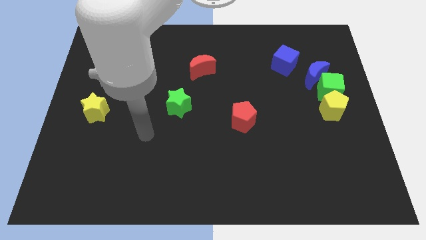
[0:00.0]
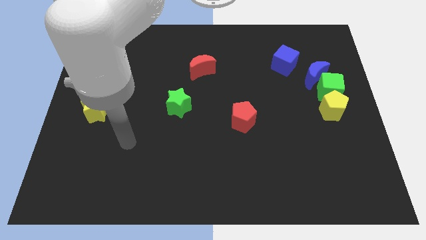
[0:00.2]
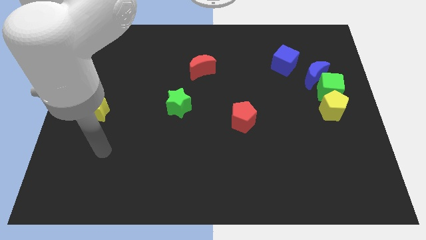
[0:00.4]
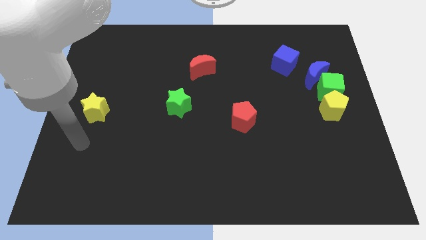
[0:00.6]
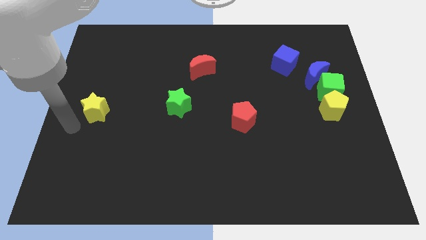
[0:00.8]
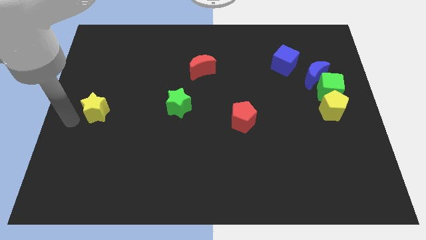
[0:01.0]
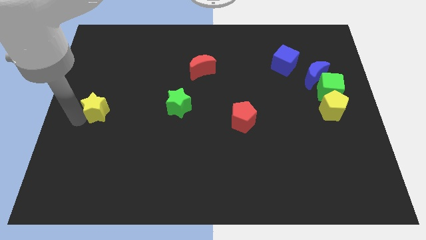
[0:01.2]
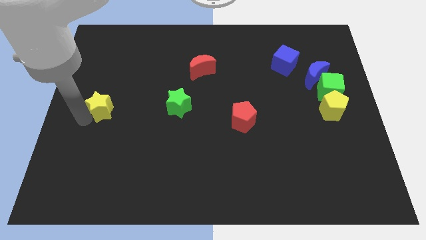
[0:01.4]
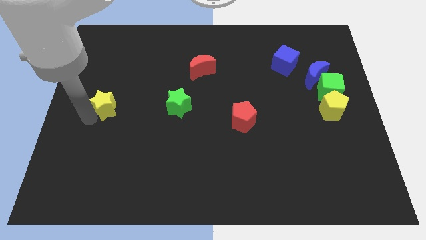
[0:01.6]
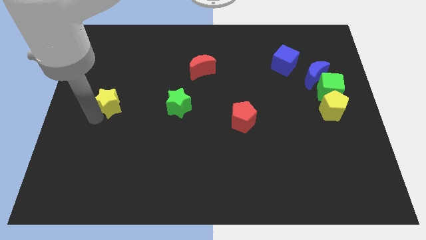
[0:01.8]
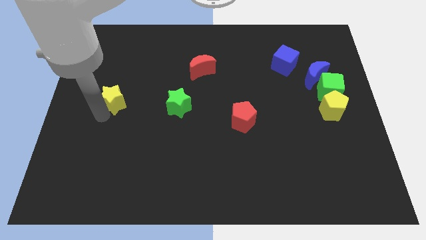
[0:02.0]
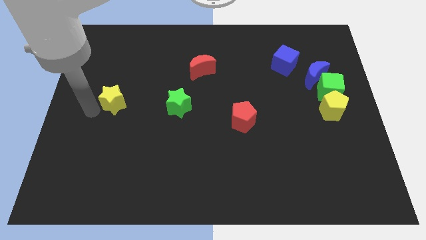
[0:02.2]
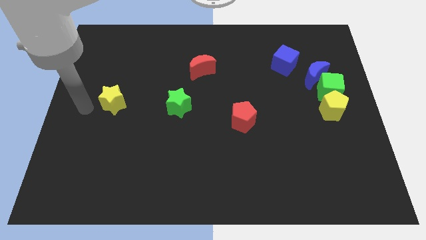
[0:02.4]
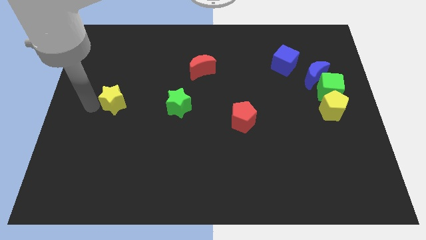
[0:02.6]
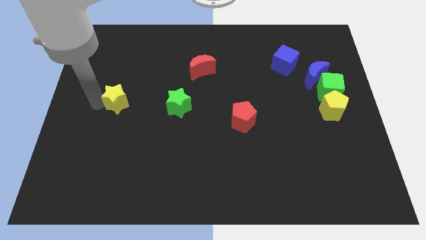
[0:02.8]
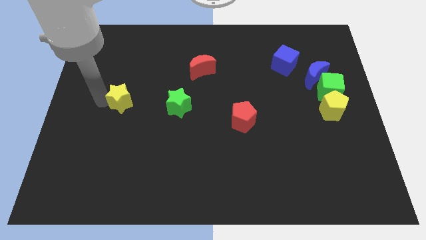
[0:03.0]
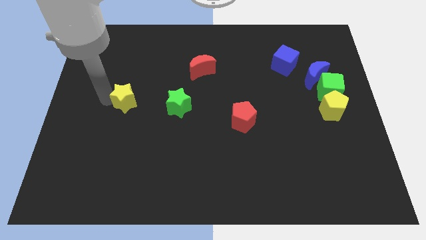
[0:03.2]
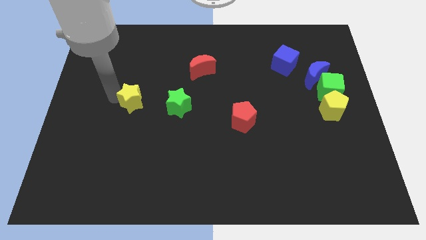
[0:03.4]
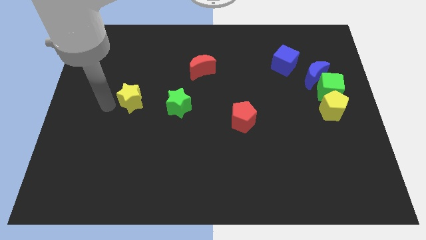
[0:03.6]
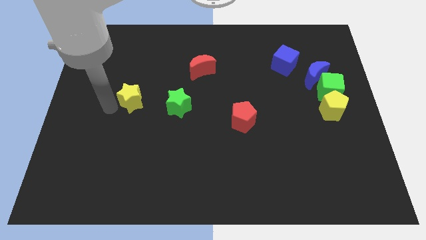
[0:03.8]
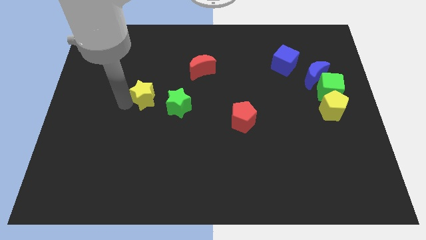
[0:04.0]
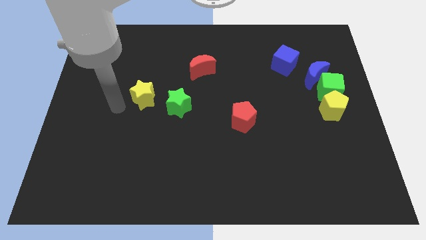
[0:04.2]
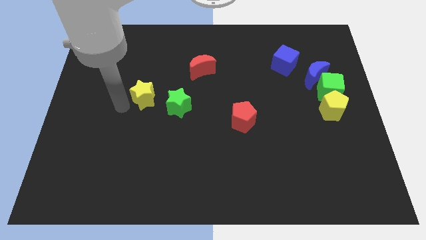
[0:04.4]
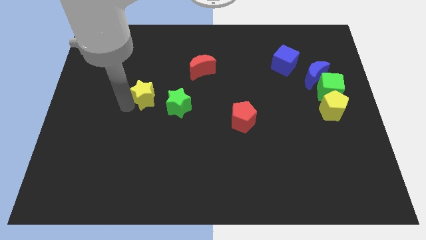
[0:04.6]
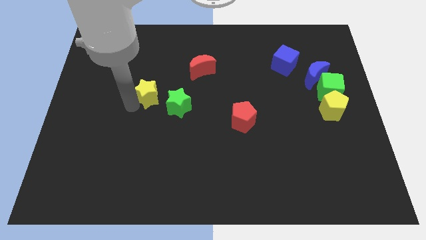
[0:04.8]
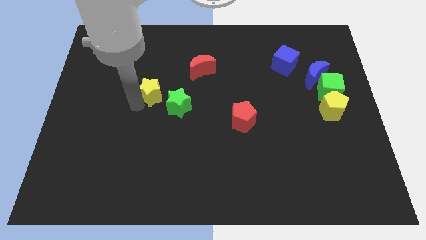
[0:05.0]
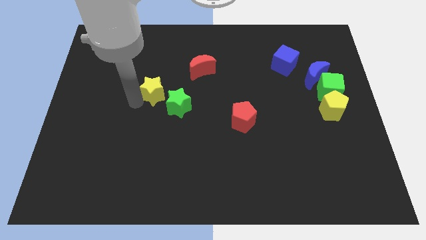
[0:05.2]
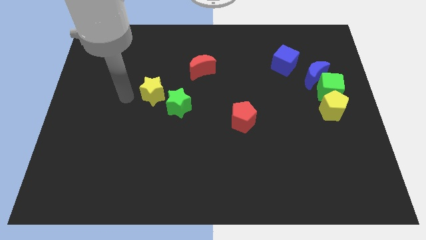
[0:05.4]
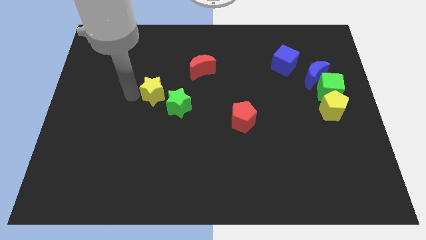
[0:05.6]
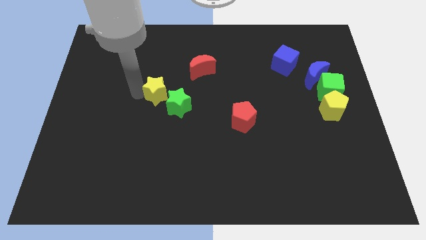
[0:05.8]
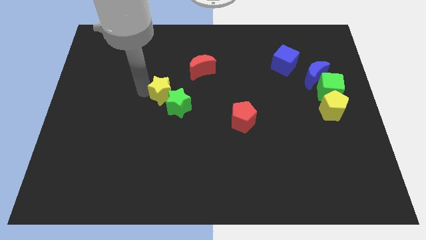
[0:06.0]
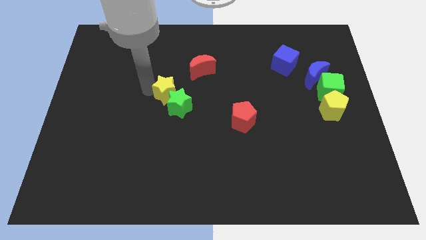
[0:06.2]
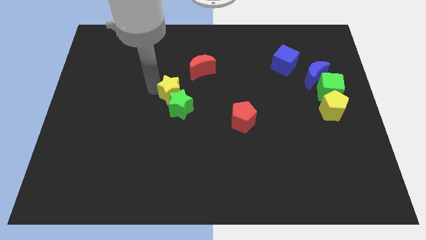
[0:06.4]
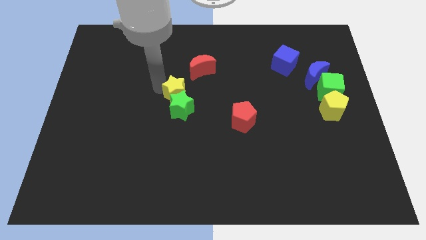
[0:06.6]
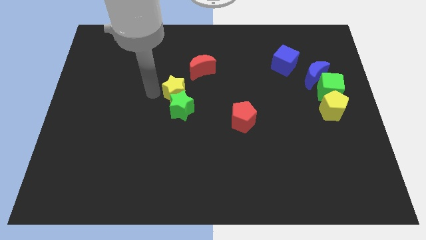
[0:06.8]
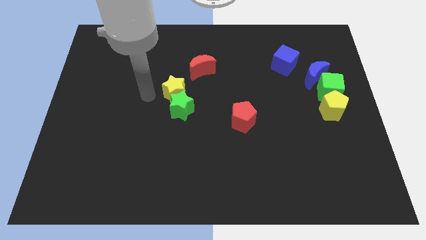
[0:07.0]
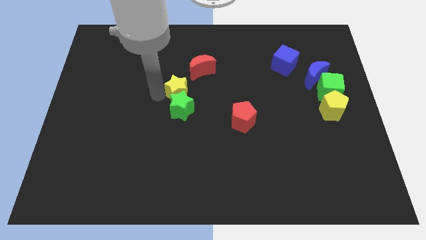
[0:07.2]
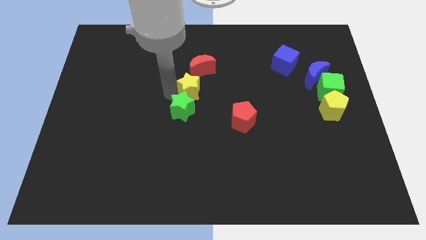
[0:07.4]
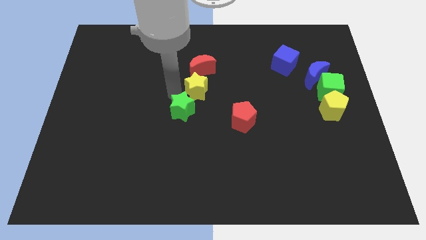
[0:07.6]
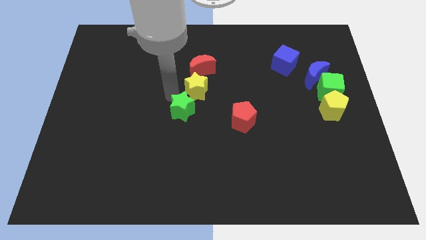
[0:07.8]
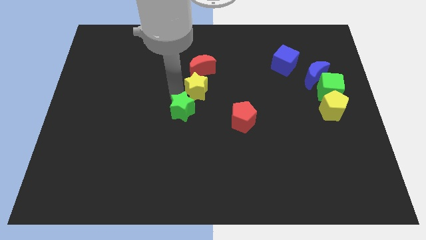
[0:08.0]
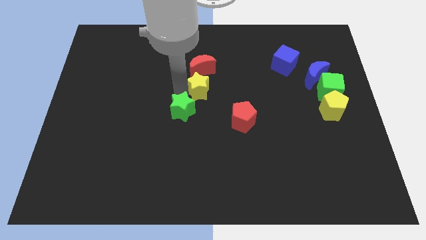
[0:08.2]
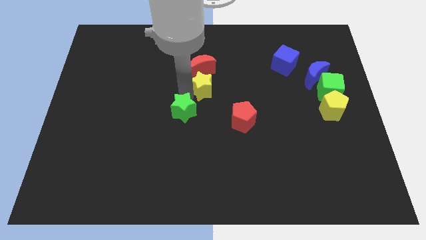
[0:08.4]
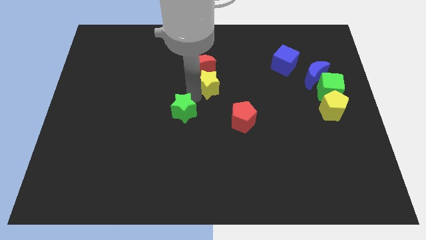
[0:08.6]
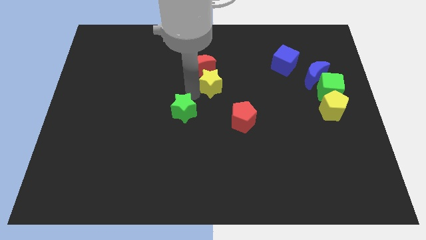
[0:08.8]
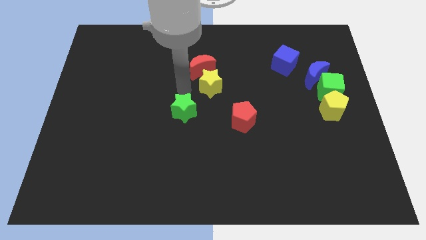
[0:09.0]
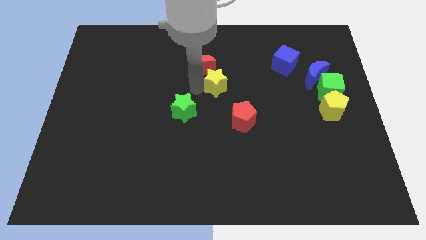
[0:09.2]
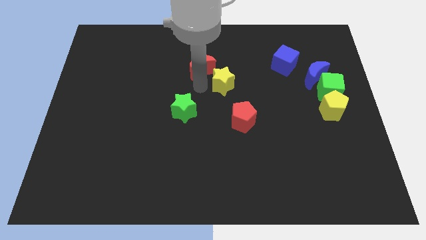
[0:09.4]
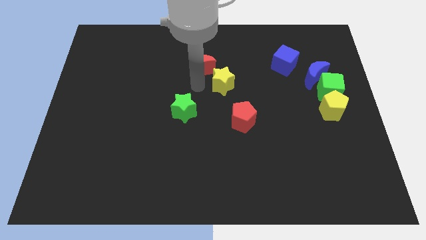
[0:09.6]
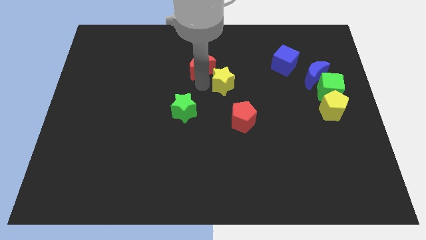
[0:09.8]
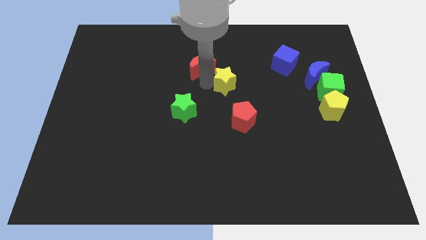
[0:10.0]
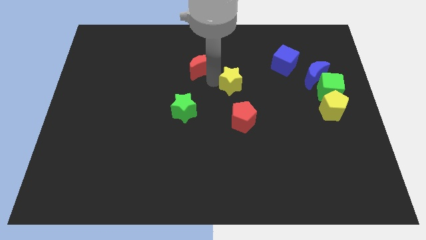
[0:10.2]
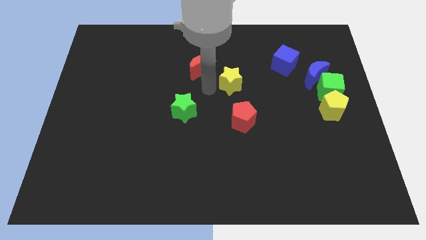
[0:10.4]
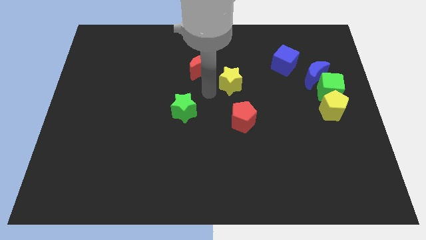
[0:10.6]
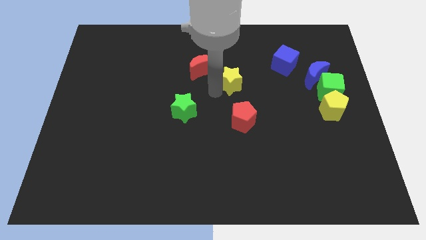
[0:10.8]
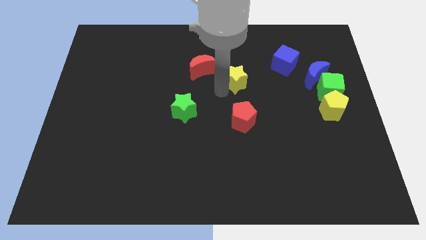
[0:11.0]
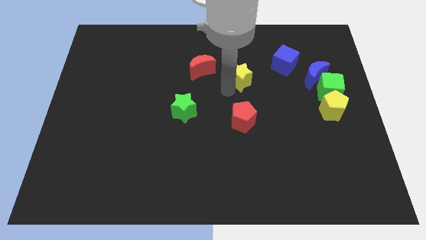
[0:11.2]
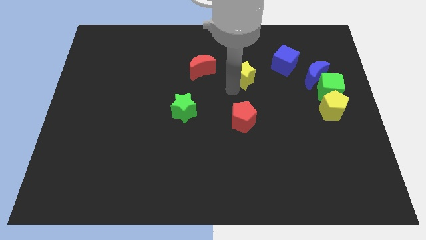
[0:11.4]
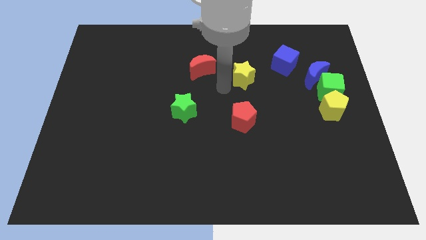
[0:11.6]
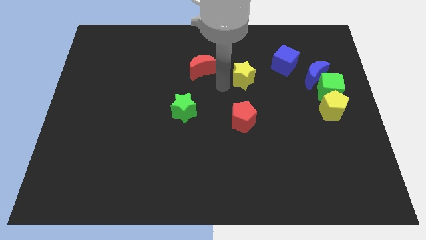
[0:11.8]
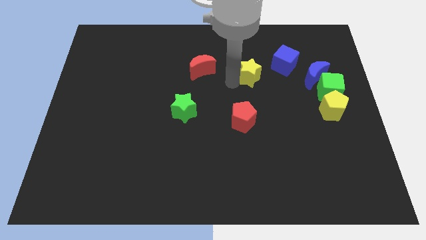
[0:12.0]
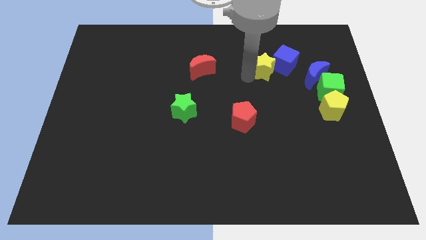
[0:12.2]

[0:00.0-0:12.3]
move the yellow star towards the blue cube

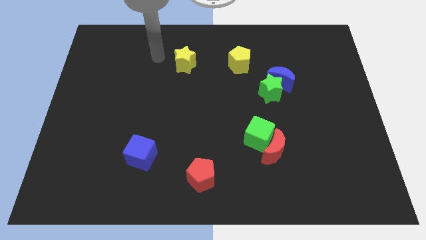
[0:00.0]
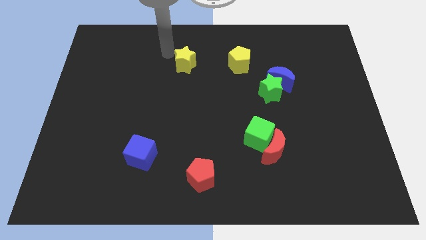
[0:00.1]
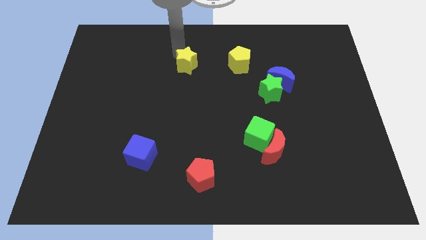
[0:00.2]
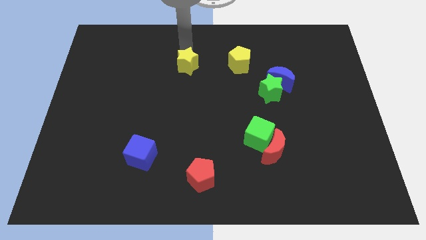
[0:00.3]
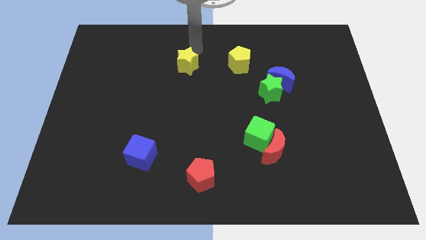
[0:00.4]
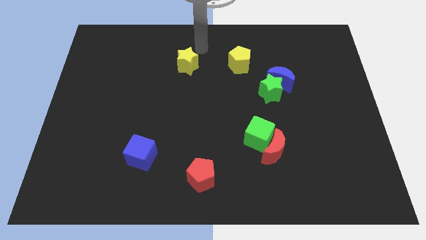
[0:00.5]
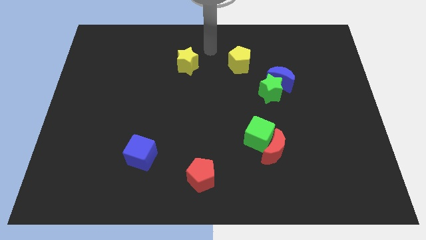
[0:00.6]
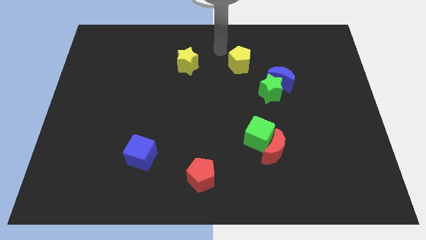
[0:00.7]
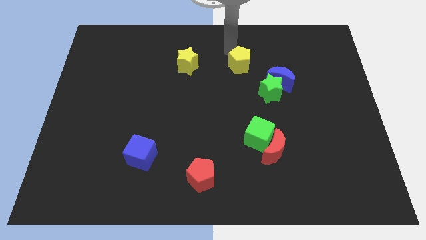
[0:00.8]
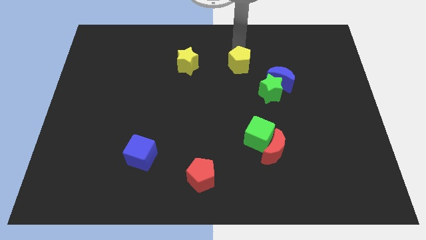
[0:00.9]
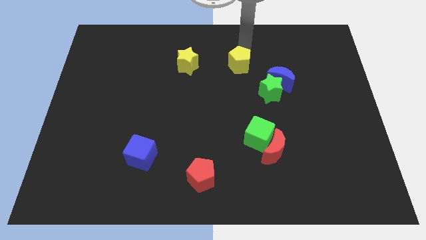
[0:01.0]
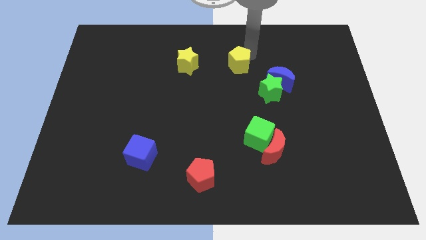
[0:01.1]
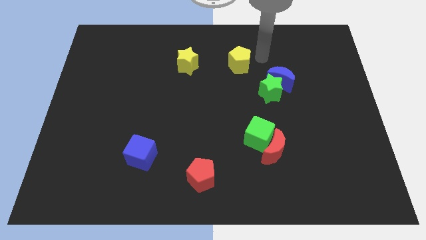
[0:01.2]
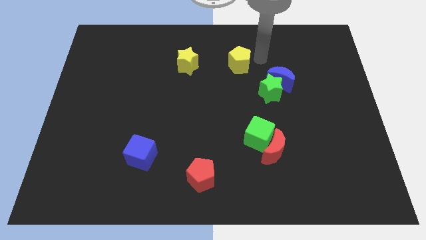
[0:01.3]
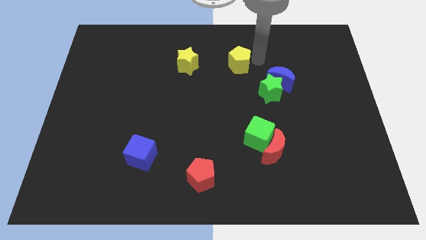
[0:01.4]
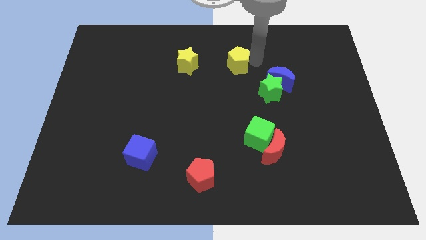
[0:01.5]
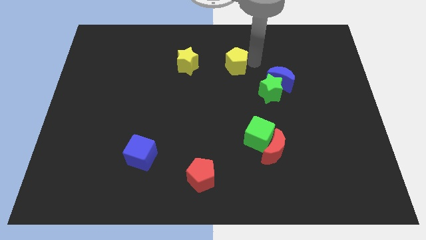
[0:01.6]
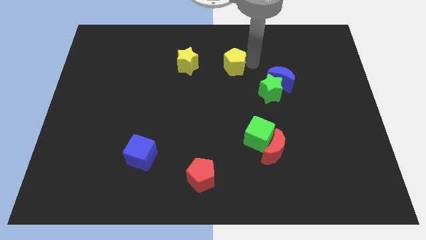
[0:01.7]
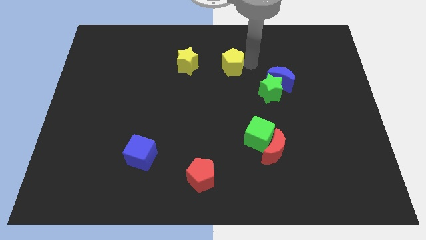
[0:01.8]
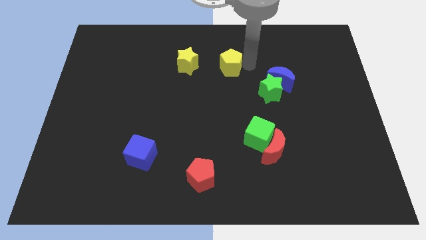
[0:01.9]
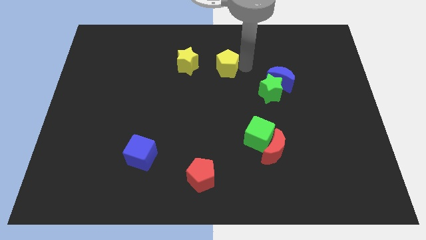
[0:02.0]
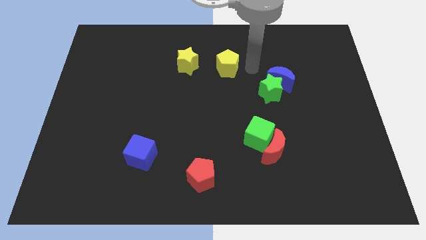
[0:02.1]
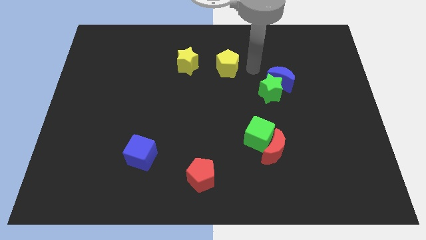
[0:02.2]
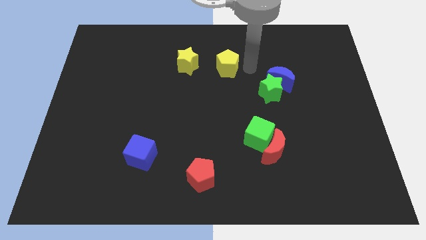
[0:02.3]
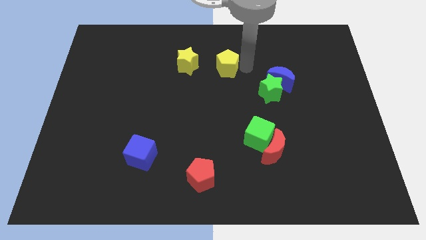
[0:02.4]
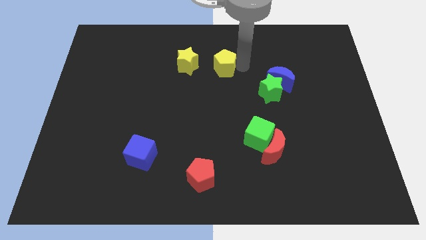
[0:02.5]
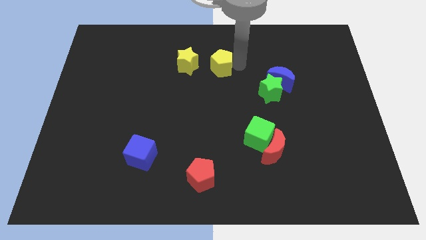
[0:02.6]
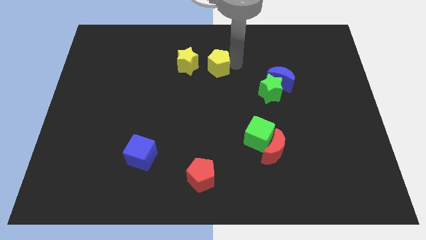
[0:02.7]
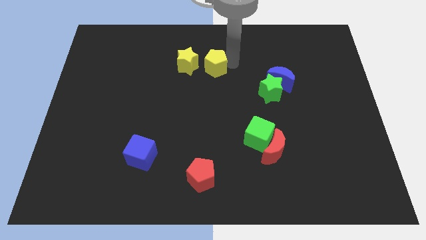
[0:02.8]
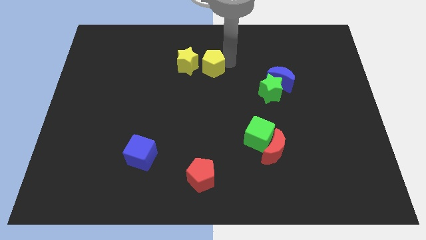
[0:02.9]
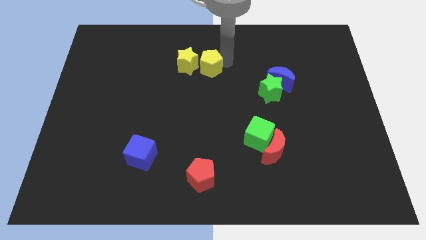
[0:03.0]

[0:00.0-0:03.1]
move the yellow pentagon close to the yellow star
